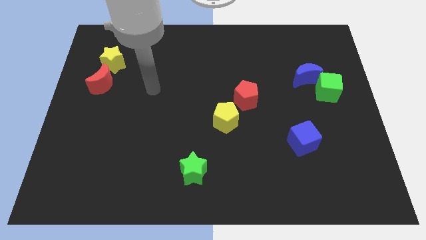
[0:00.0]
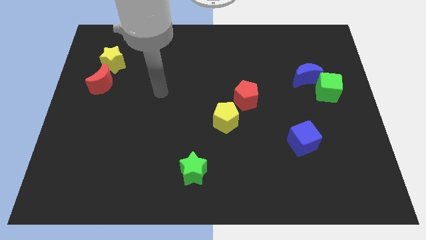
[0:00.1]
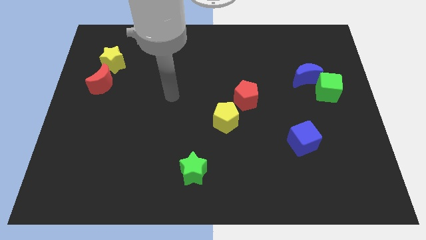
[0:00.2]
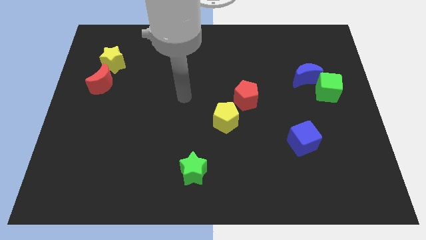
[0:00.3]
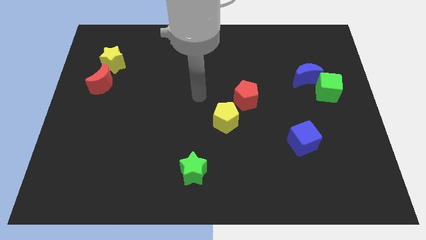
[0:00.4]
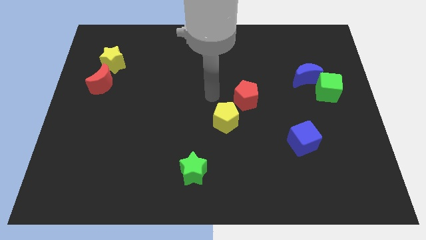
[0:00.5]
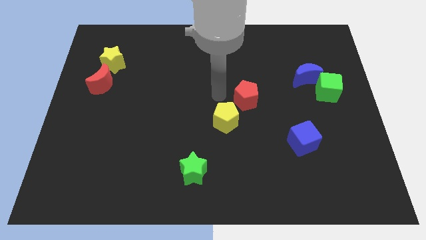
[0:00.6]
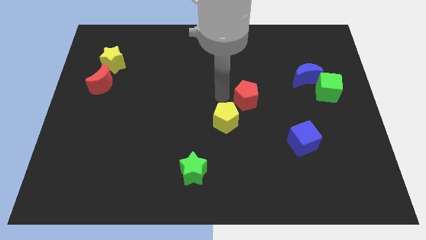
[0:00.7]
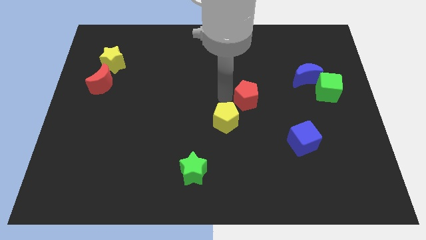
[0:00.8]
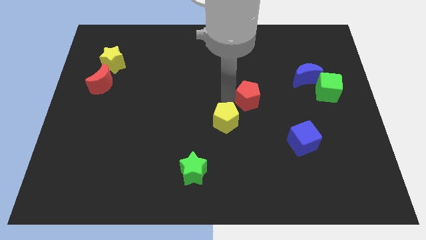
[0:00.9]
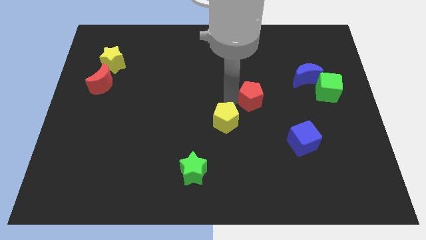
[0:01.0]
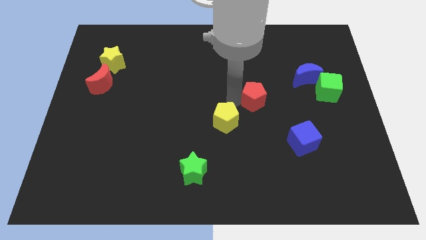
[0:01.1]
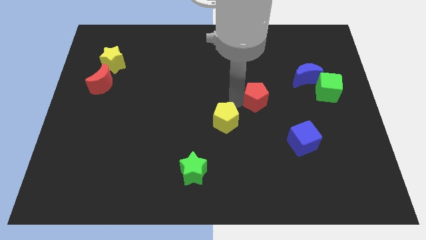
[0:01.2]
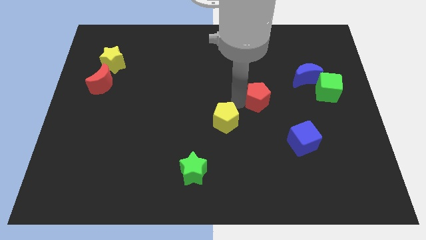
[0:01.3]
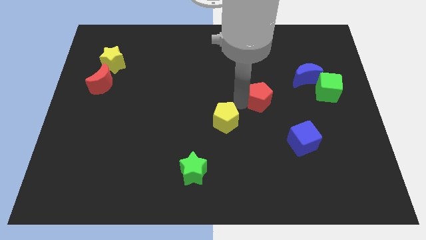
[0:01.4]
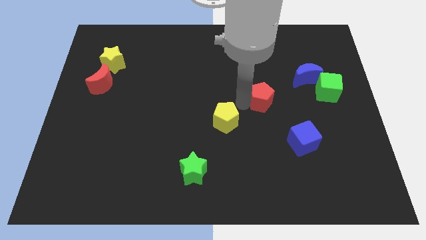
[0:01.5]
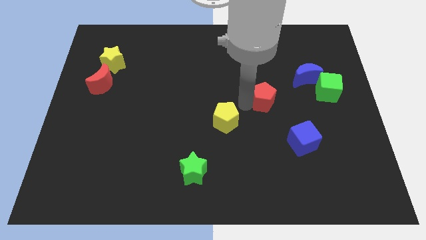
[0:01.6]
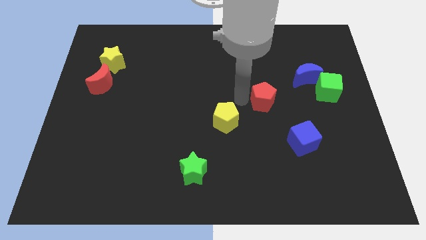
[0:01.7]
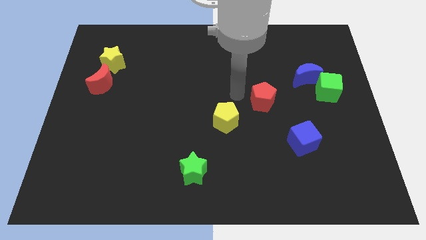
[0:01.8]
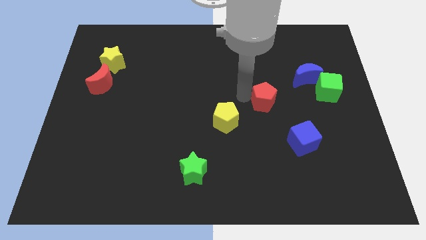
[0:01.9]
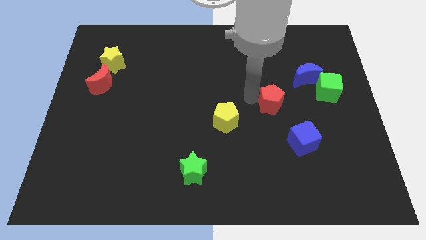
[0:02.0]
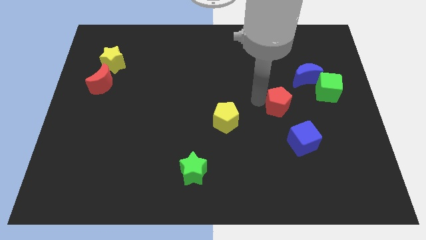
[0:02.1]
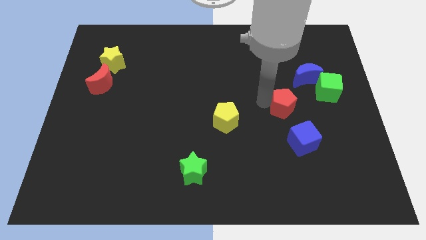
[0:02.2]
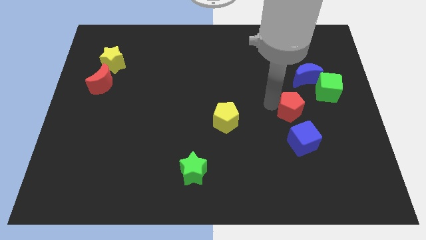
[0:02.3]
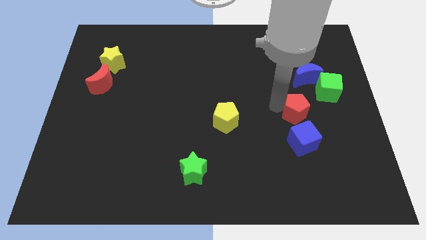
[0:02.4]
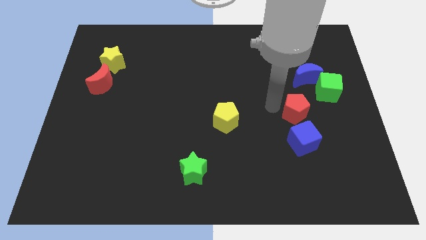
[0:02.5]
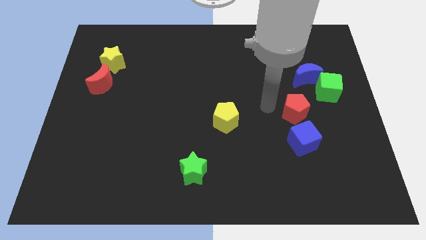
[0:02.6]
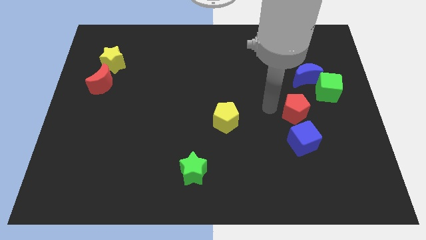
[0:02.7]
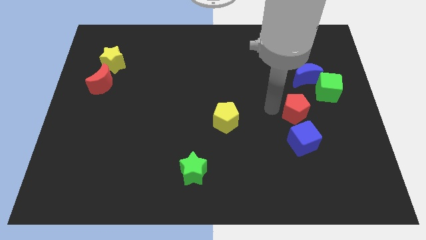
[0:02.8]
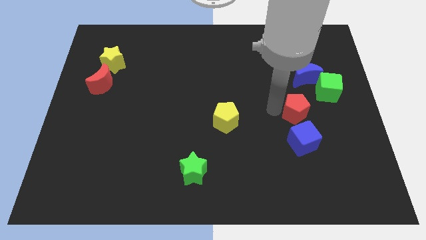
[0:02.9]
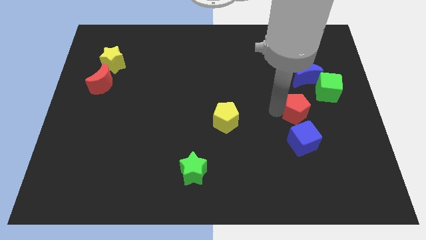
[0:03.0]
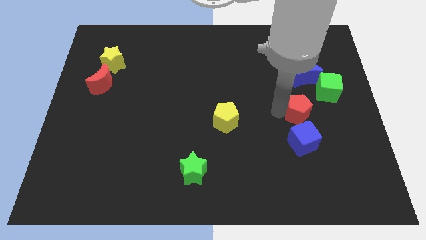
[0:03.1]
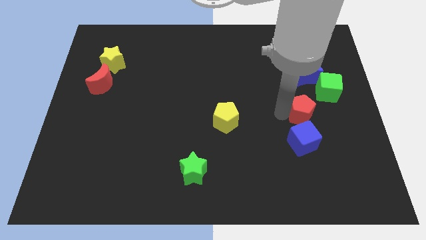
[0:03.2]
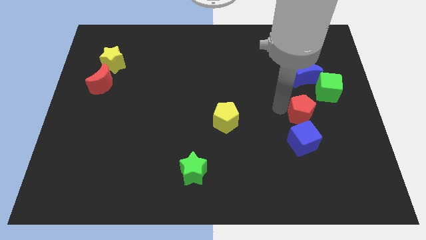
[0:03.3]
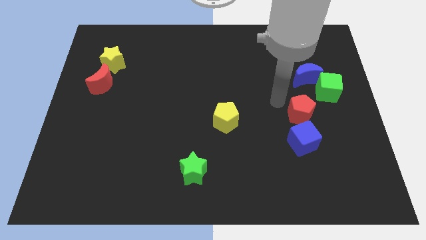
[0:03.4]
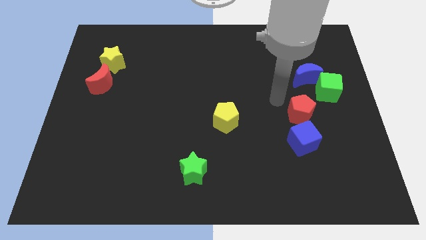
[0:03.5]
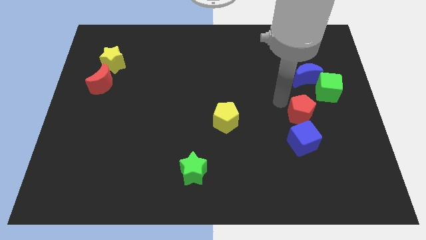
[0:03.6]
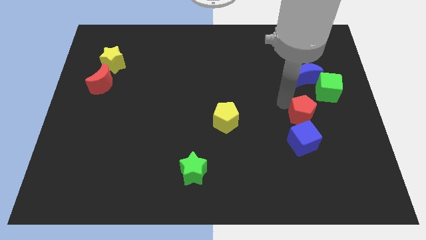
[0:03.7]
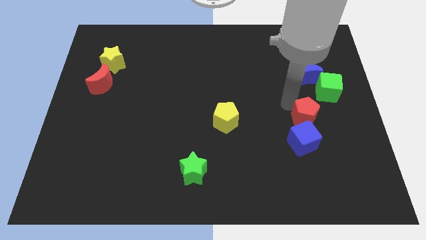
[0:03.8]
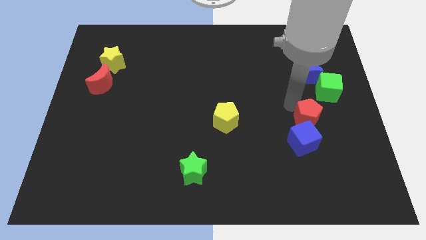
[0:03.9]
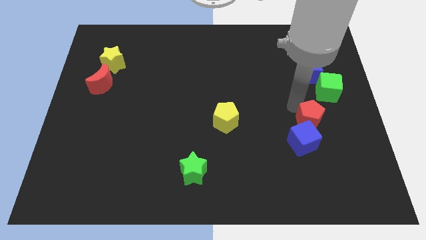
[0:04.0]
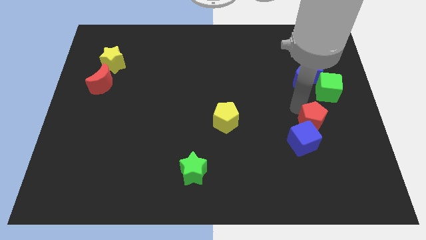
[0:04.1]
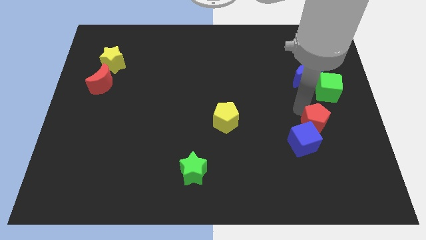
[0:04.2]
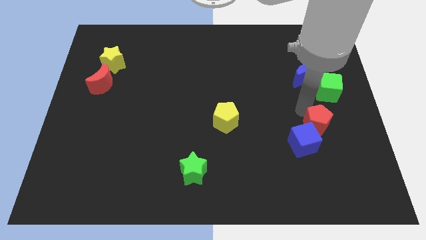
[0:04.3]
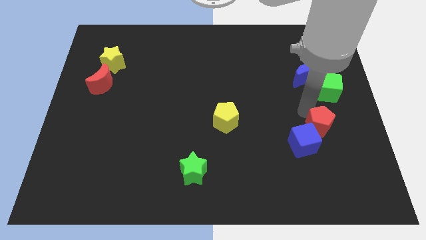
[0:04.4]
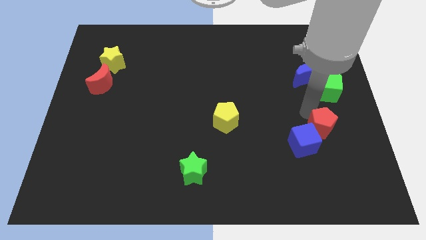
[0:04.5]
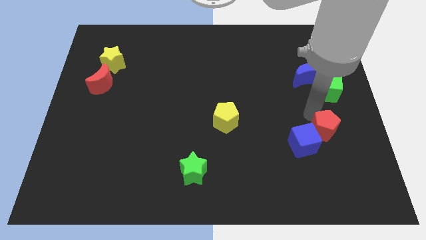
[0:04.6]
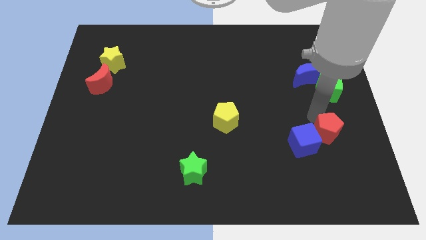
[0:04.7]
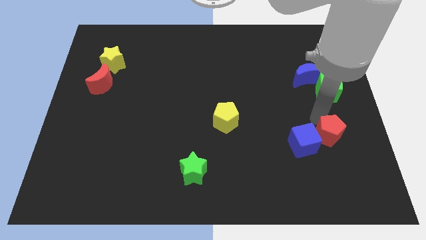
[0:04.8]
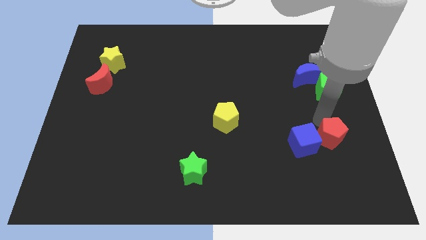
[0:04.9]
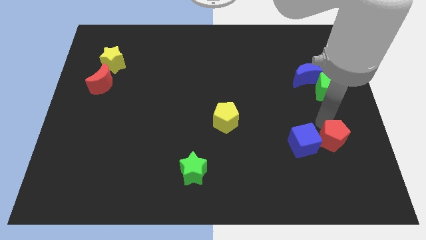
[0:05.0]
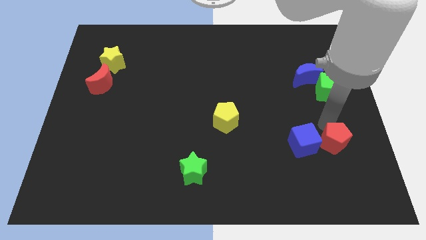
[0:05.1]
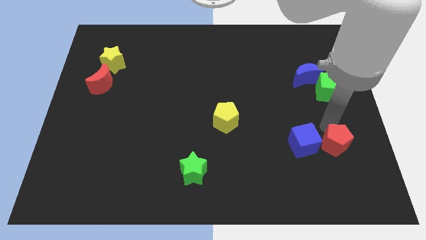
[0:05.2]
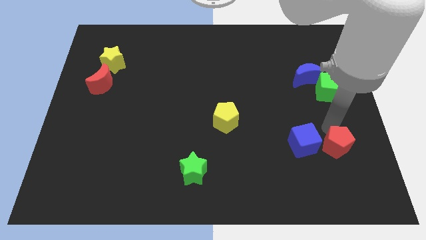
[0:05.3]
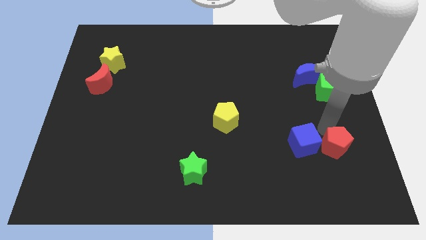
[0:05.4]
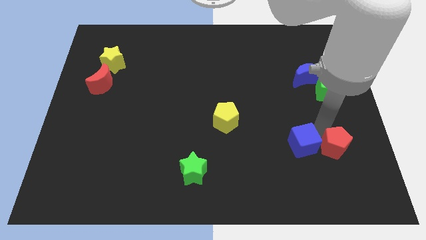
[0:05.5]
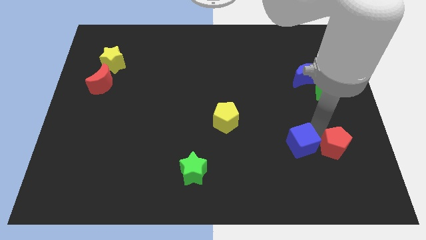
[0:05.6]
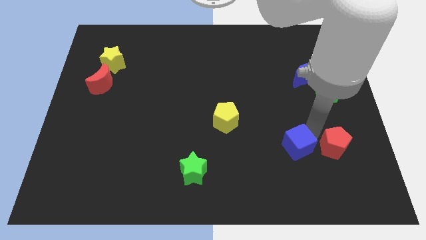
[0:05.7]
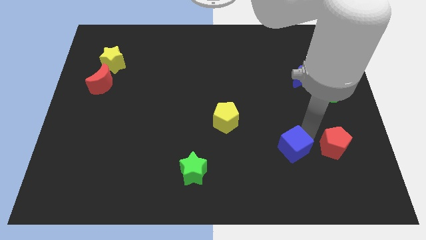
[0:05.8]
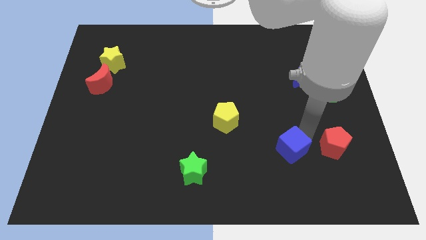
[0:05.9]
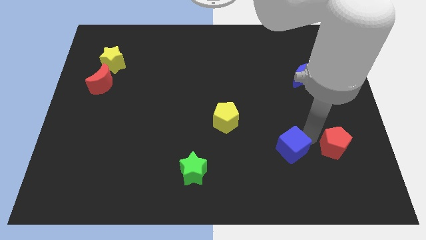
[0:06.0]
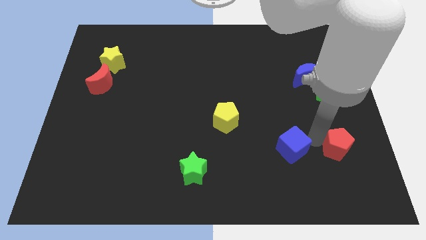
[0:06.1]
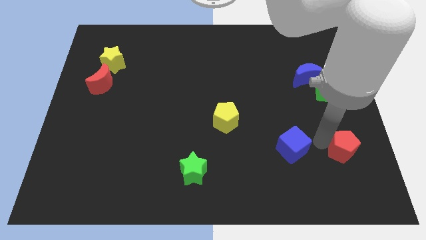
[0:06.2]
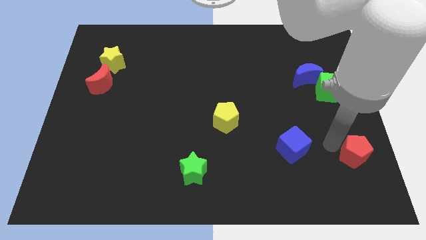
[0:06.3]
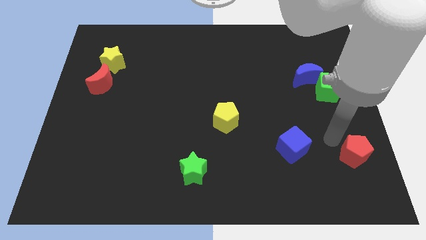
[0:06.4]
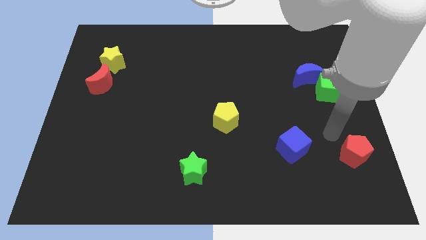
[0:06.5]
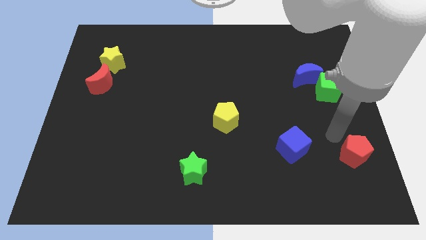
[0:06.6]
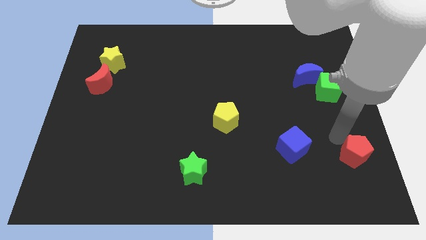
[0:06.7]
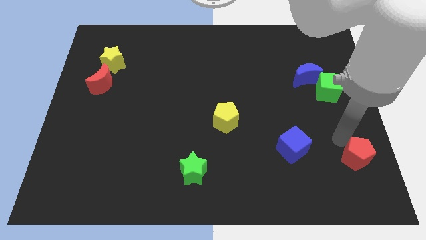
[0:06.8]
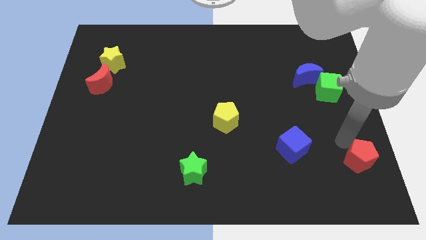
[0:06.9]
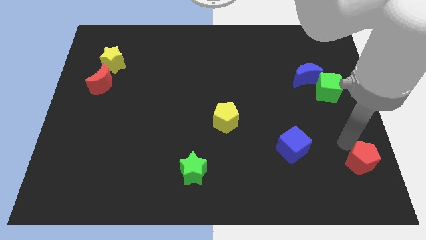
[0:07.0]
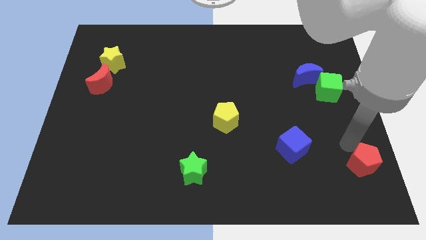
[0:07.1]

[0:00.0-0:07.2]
push the red pentagon to the bottom right of the board
